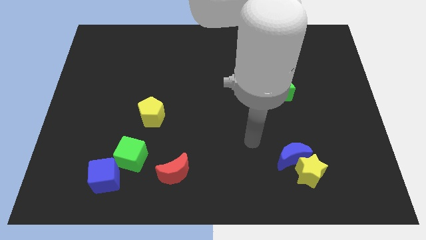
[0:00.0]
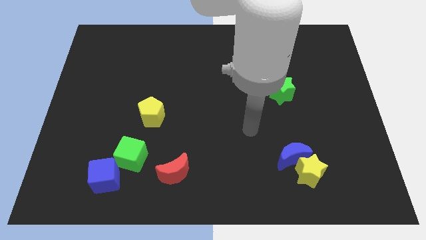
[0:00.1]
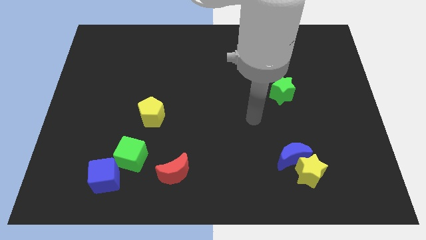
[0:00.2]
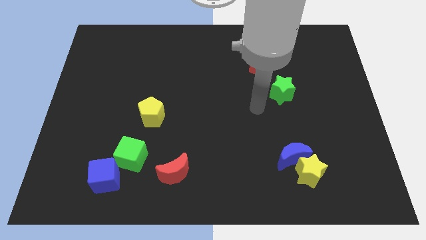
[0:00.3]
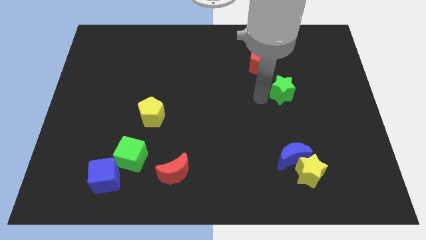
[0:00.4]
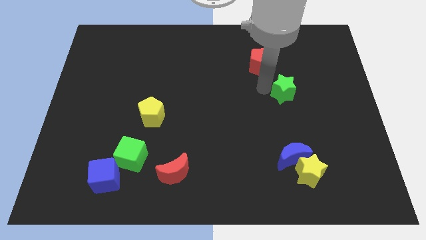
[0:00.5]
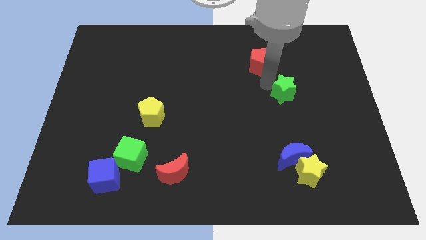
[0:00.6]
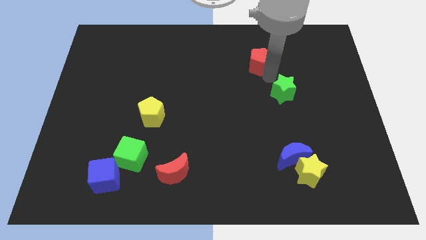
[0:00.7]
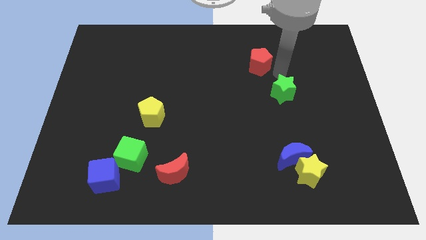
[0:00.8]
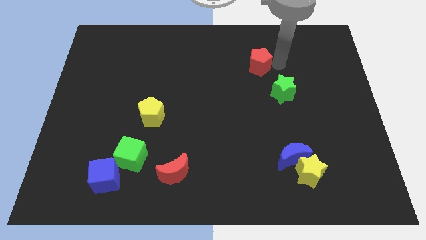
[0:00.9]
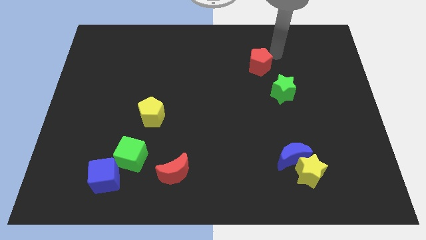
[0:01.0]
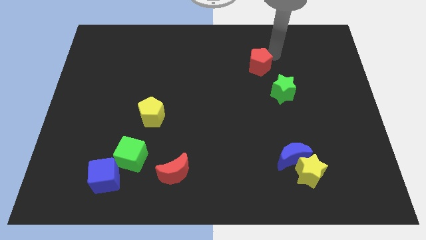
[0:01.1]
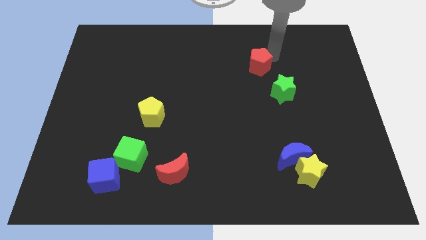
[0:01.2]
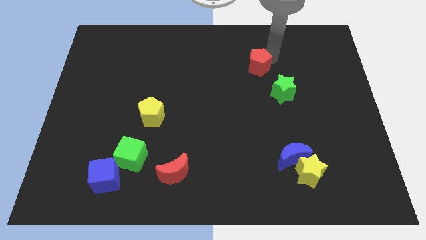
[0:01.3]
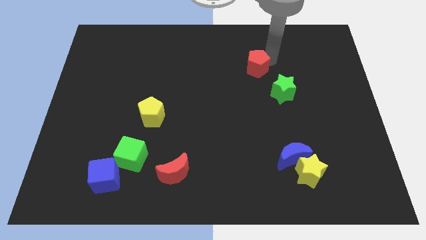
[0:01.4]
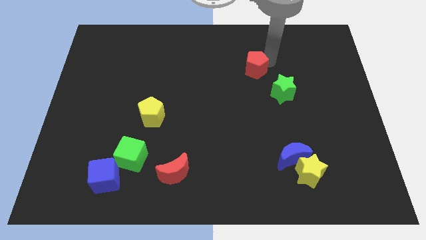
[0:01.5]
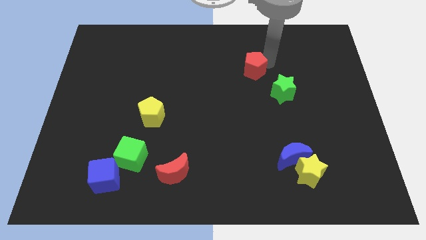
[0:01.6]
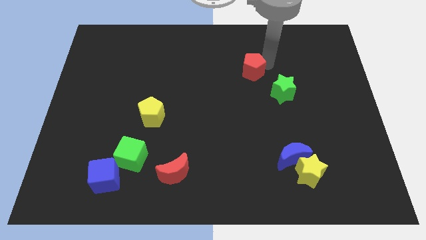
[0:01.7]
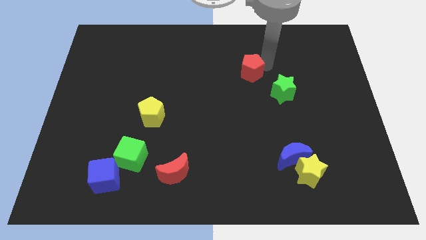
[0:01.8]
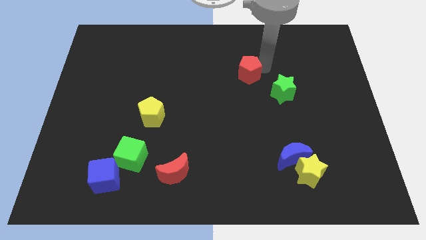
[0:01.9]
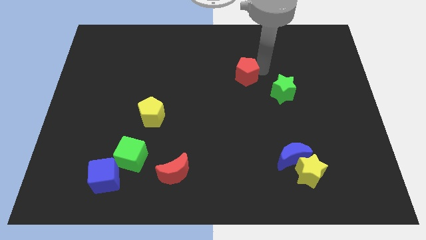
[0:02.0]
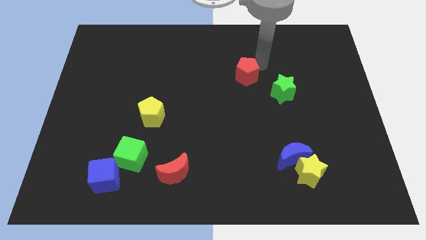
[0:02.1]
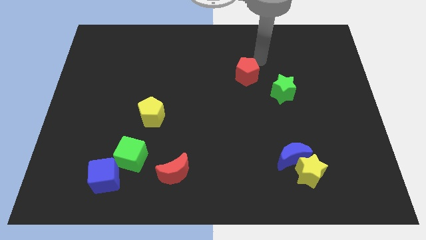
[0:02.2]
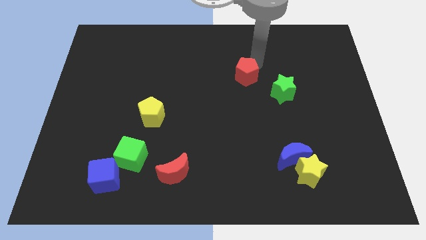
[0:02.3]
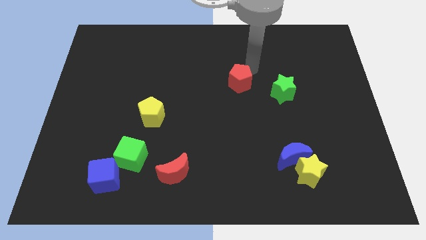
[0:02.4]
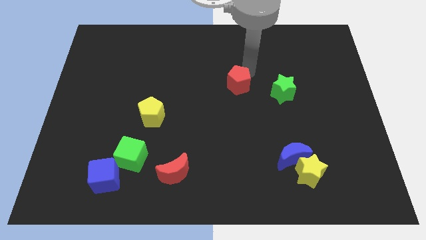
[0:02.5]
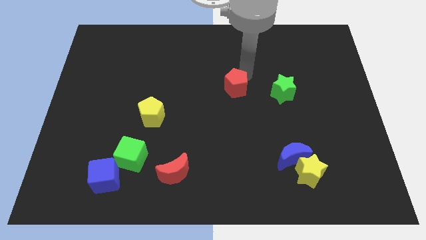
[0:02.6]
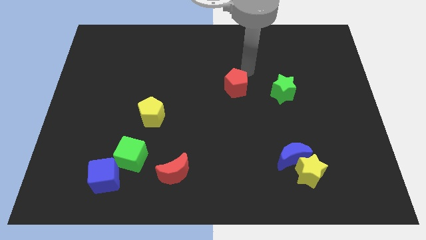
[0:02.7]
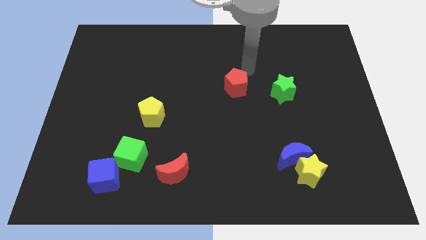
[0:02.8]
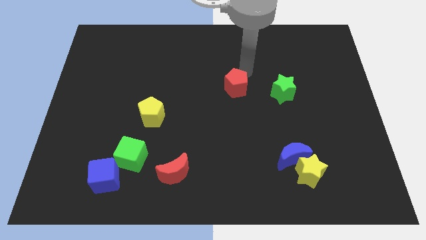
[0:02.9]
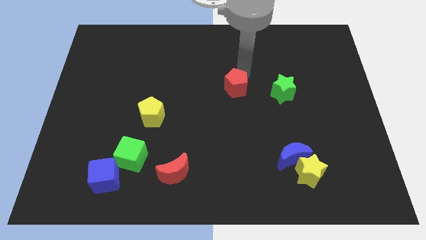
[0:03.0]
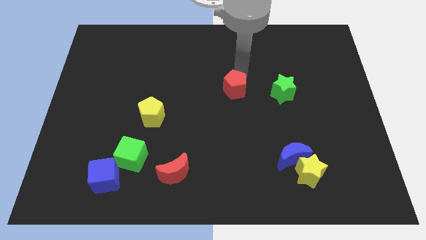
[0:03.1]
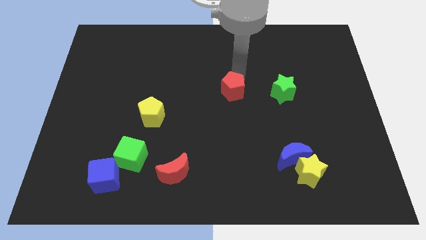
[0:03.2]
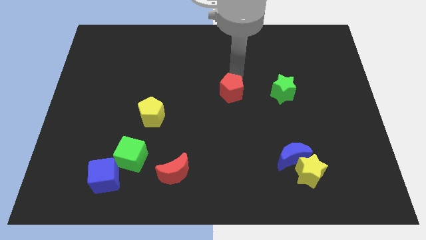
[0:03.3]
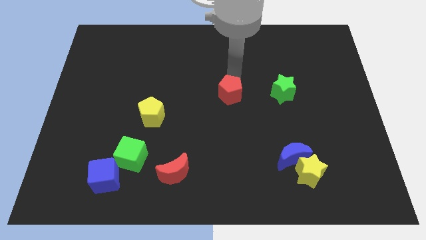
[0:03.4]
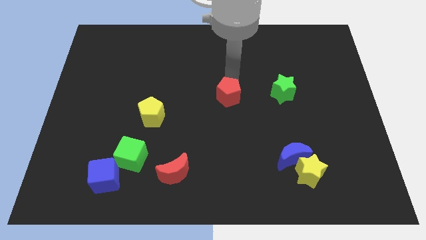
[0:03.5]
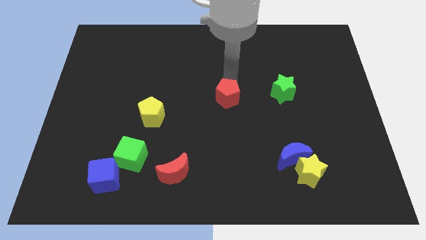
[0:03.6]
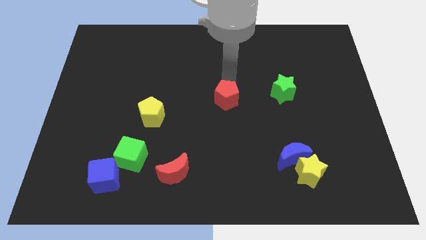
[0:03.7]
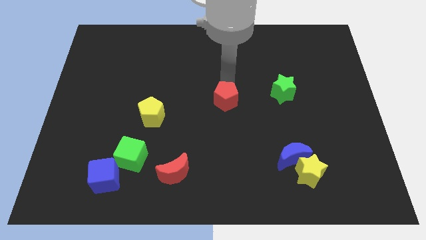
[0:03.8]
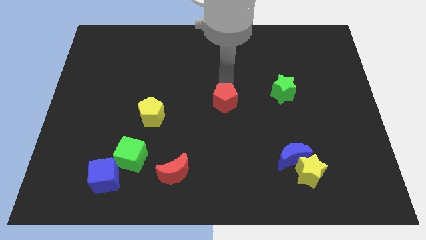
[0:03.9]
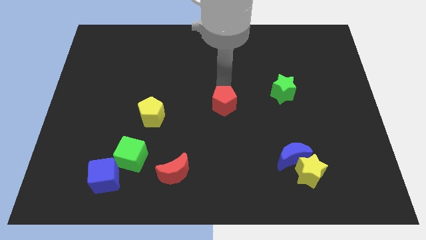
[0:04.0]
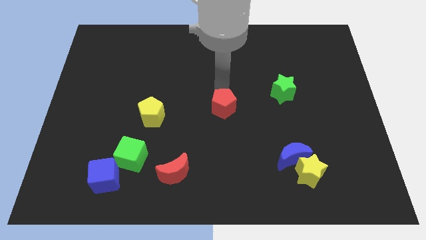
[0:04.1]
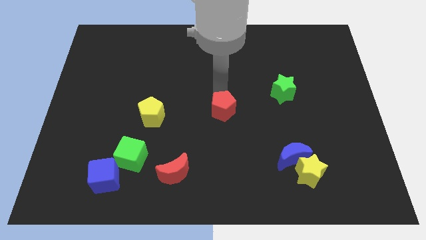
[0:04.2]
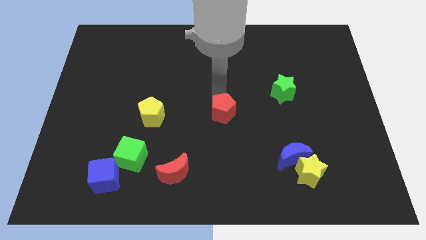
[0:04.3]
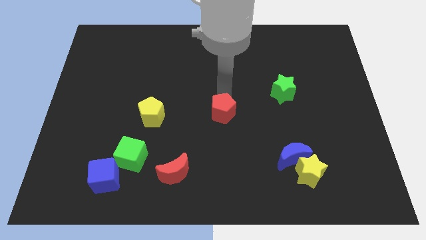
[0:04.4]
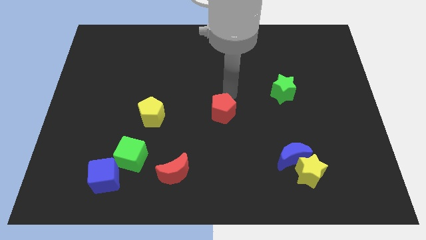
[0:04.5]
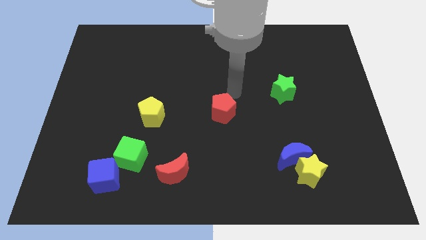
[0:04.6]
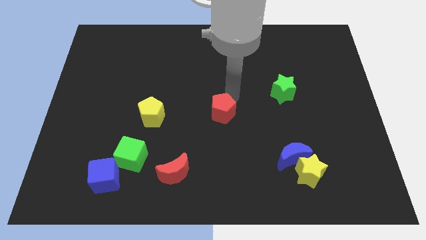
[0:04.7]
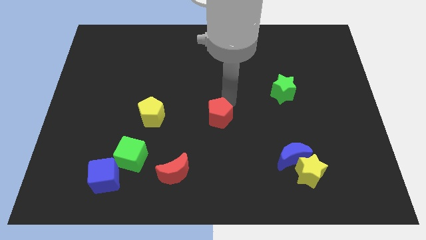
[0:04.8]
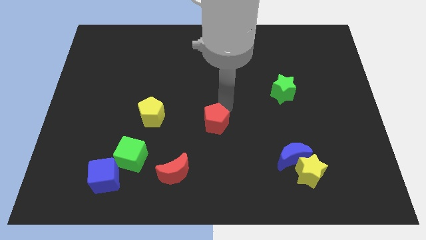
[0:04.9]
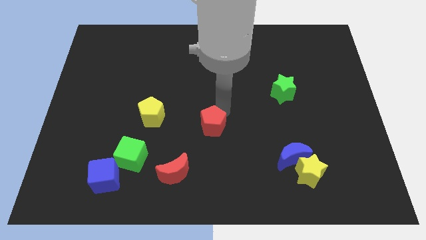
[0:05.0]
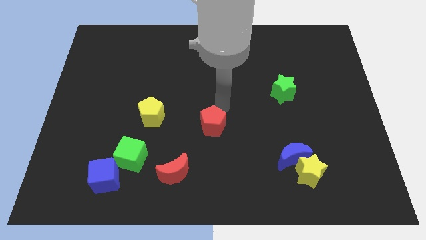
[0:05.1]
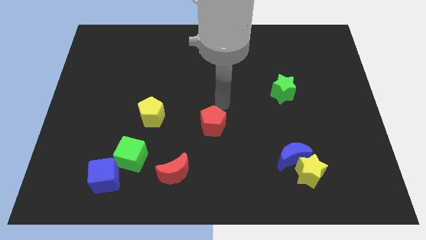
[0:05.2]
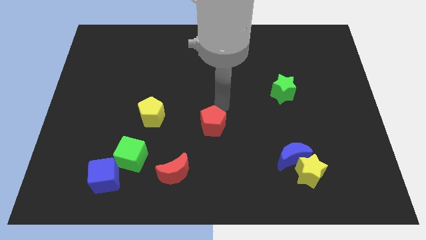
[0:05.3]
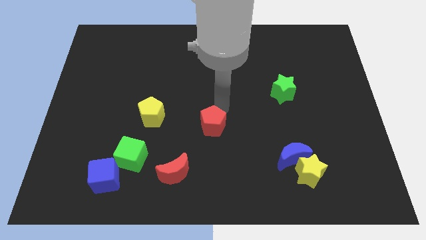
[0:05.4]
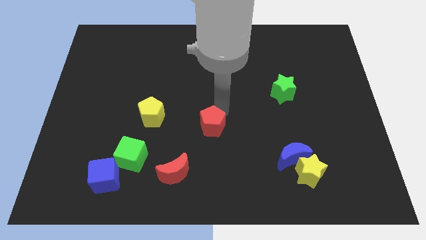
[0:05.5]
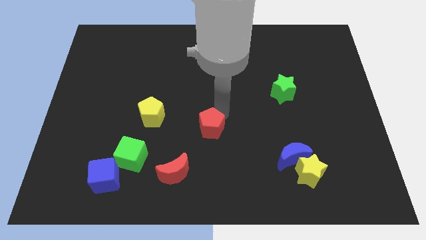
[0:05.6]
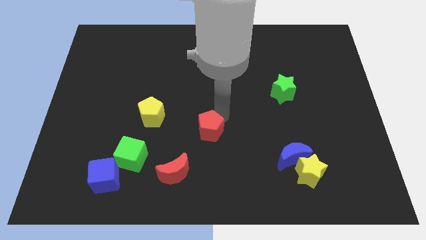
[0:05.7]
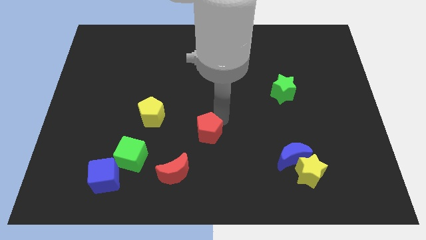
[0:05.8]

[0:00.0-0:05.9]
put the red pentagon diagonally up and to the right of the red moon

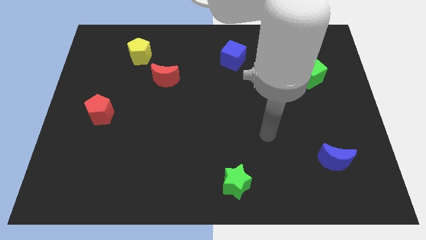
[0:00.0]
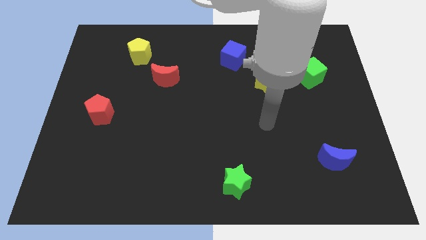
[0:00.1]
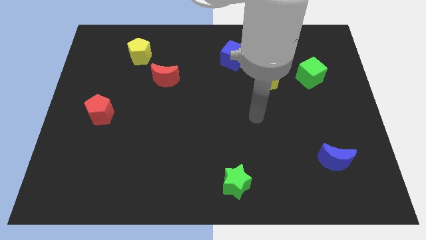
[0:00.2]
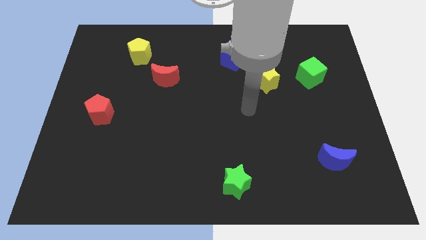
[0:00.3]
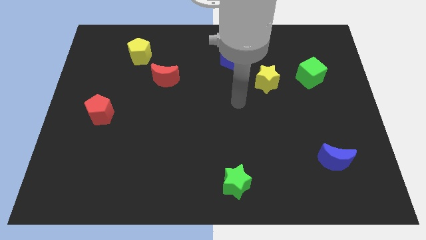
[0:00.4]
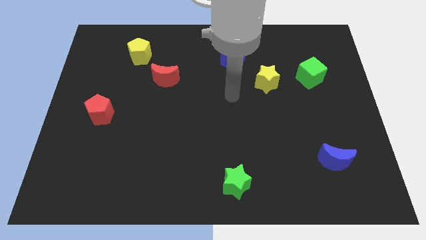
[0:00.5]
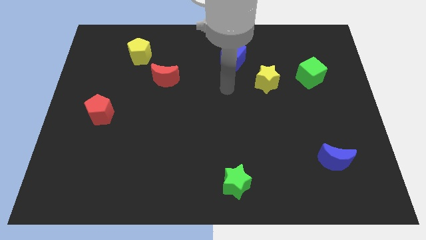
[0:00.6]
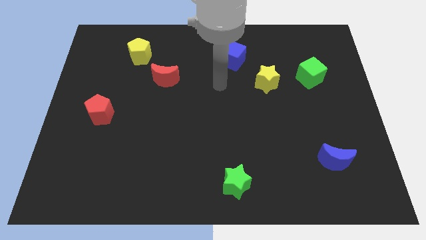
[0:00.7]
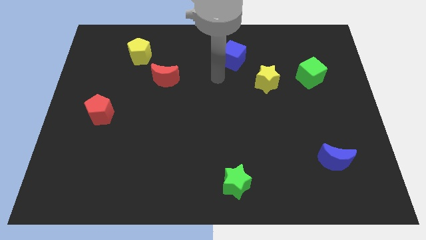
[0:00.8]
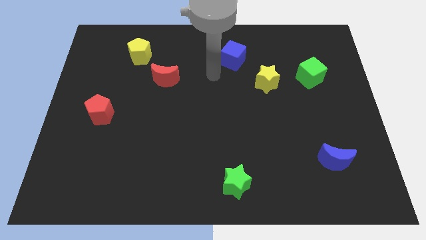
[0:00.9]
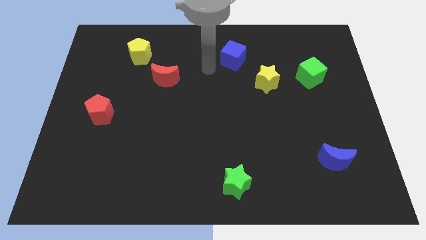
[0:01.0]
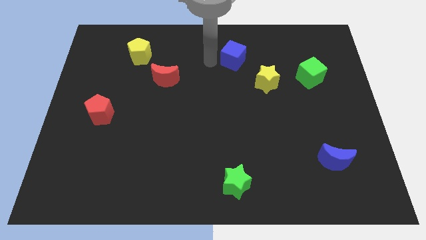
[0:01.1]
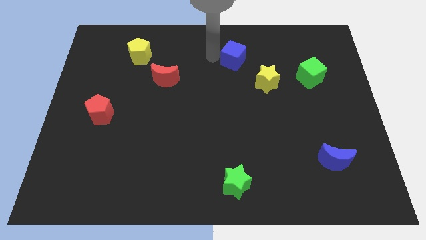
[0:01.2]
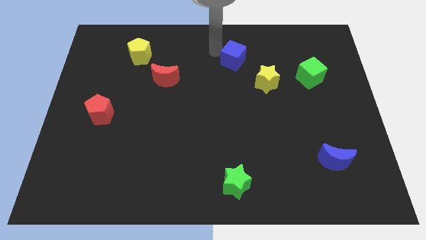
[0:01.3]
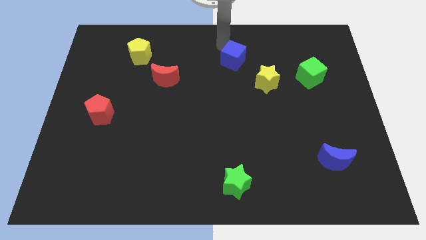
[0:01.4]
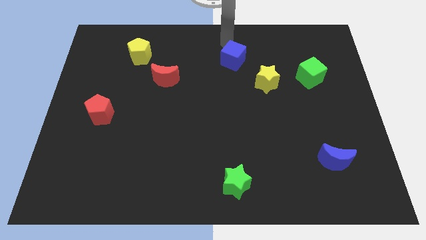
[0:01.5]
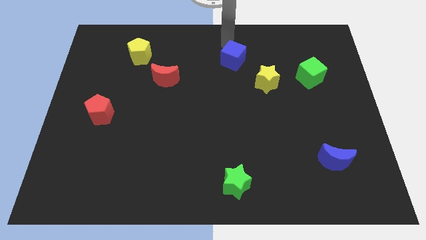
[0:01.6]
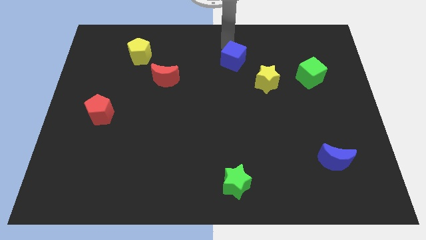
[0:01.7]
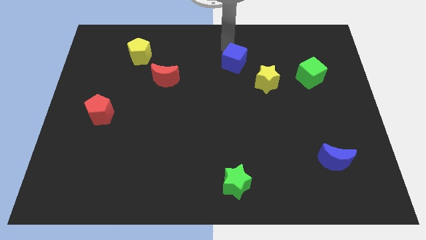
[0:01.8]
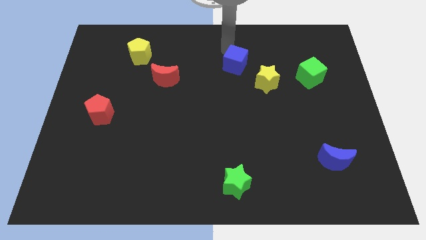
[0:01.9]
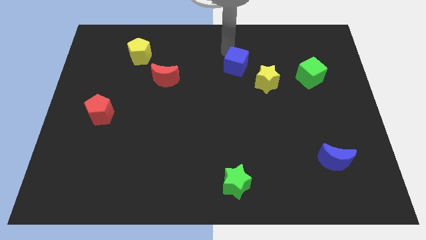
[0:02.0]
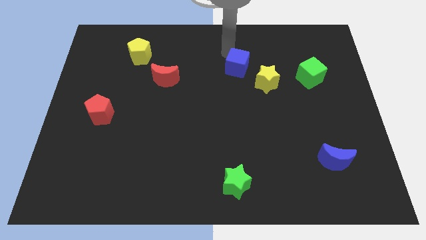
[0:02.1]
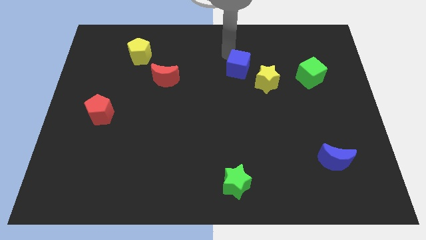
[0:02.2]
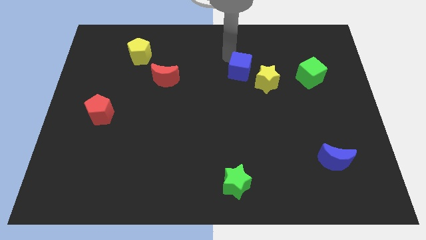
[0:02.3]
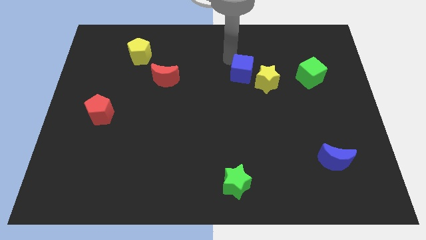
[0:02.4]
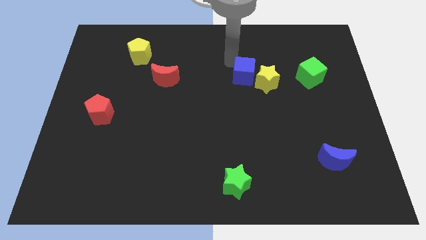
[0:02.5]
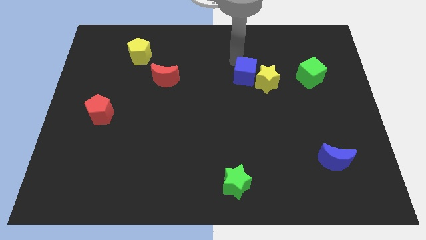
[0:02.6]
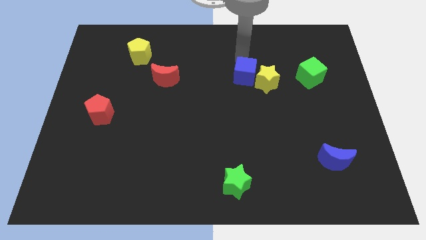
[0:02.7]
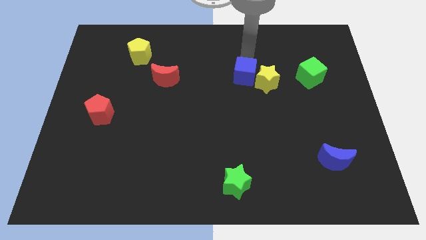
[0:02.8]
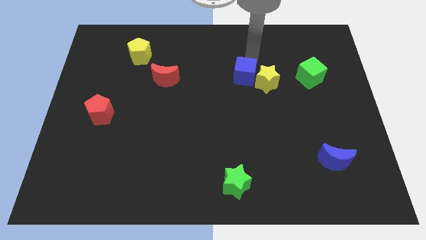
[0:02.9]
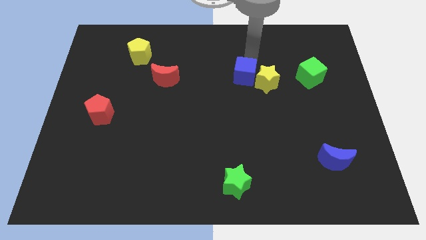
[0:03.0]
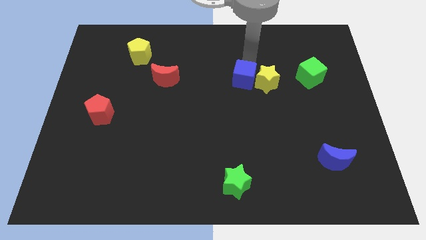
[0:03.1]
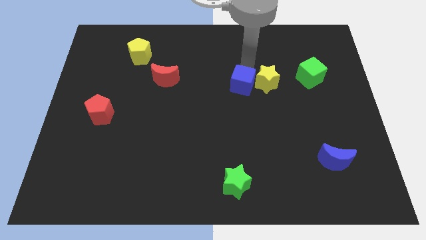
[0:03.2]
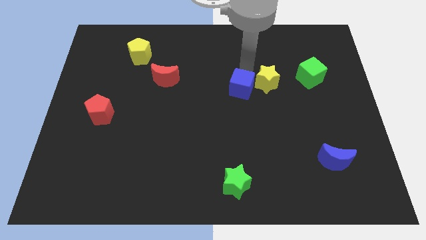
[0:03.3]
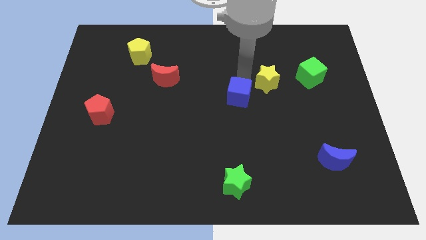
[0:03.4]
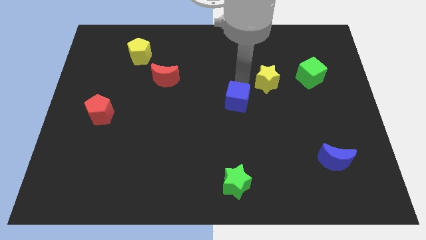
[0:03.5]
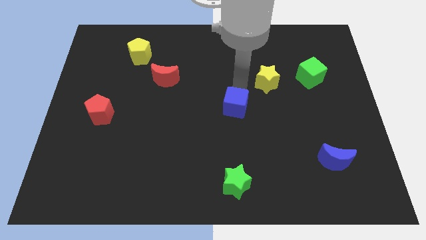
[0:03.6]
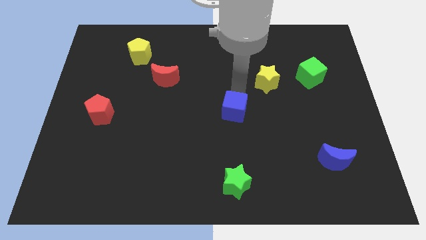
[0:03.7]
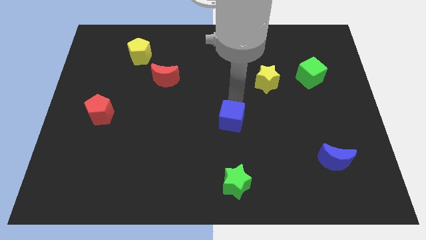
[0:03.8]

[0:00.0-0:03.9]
slide the blue cube above the green star
